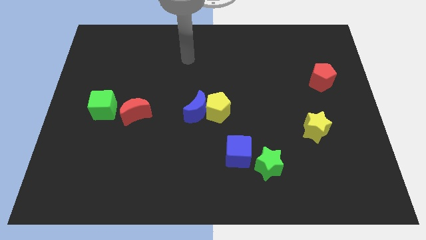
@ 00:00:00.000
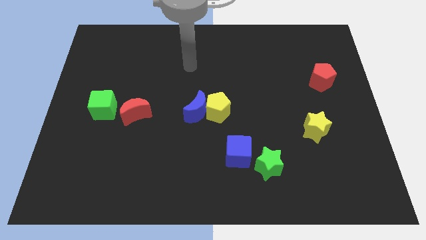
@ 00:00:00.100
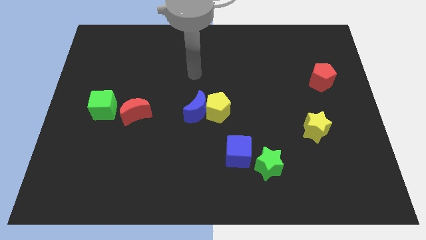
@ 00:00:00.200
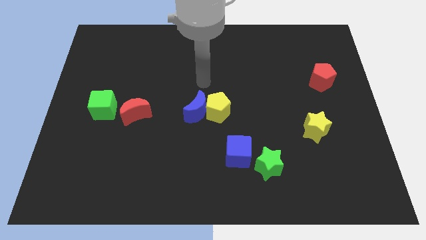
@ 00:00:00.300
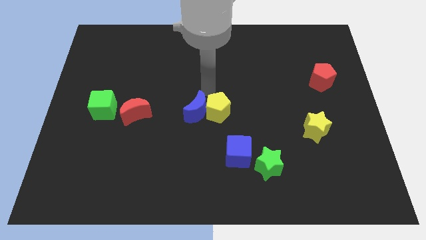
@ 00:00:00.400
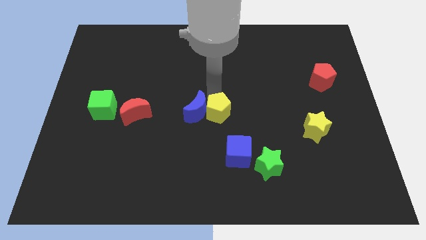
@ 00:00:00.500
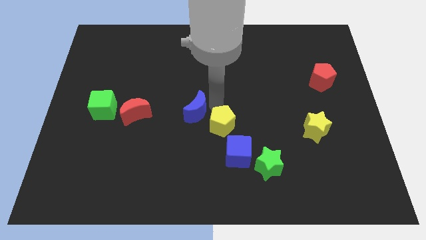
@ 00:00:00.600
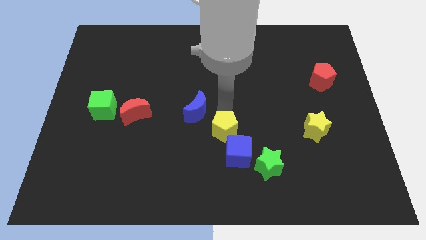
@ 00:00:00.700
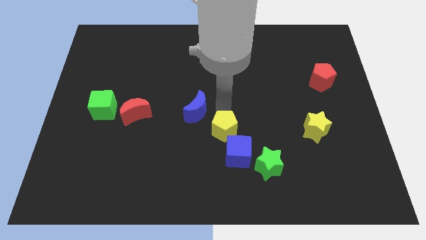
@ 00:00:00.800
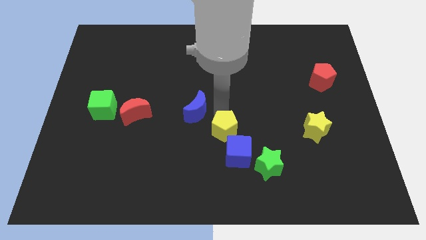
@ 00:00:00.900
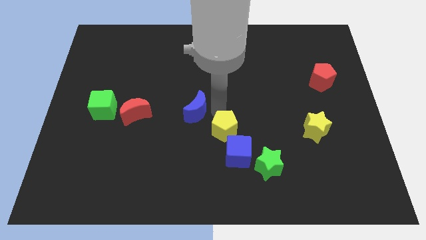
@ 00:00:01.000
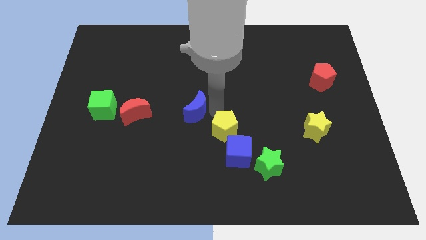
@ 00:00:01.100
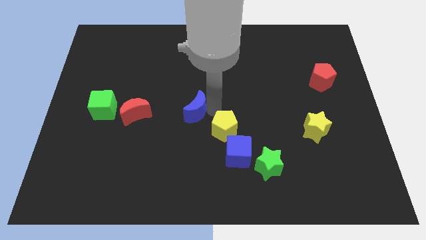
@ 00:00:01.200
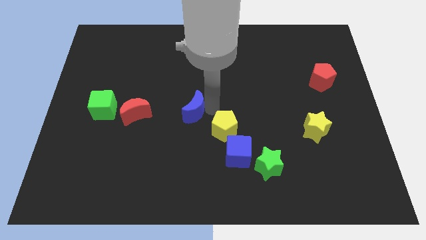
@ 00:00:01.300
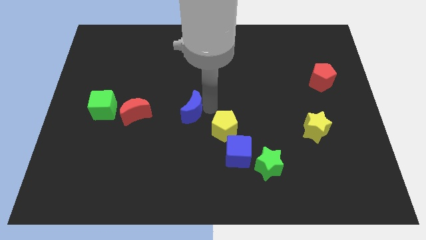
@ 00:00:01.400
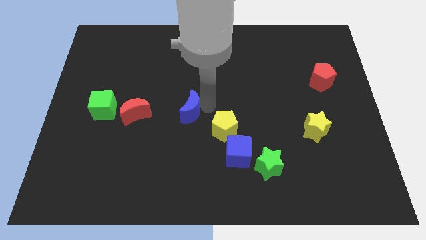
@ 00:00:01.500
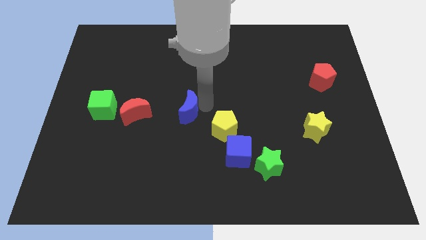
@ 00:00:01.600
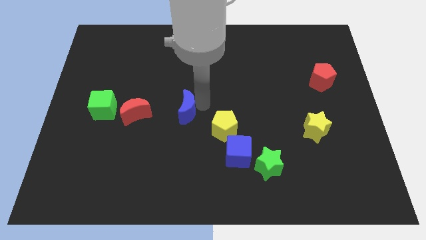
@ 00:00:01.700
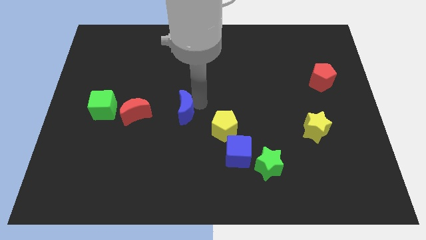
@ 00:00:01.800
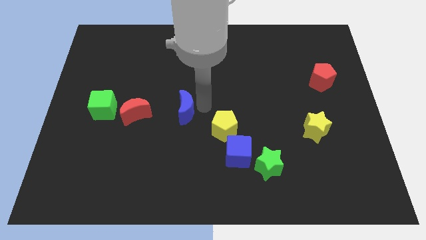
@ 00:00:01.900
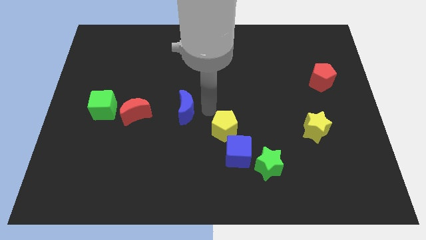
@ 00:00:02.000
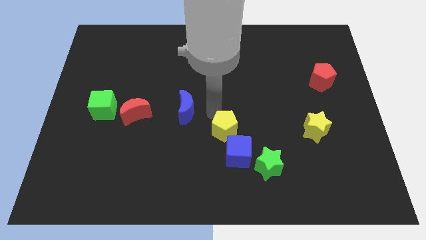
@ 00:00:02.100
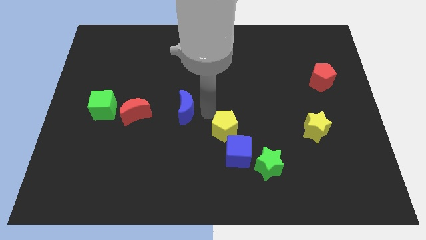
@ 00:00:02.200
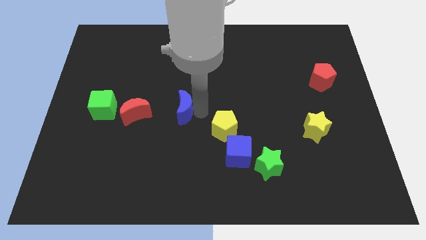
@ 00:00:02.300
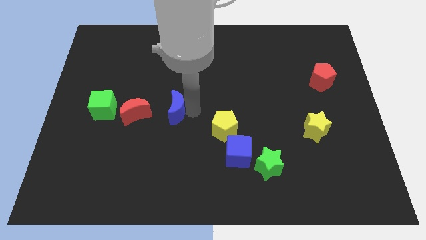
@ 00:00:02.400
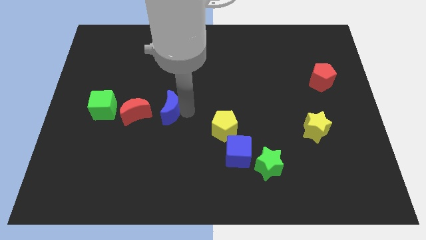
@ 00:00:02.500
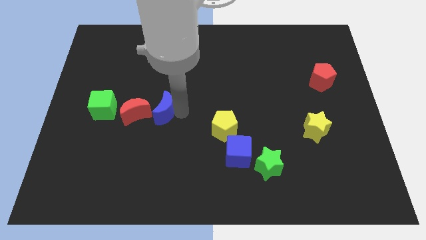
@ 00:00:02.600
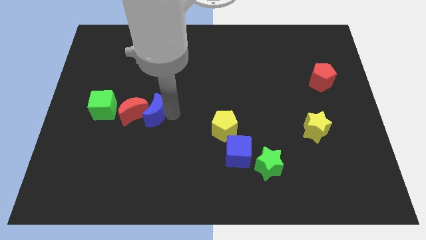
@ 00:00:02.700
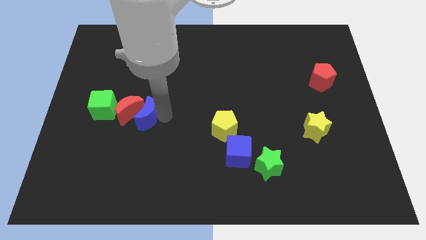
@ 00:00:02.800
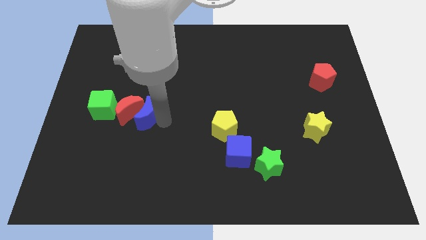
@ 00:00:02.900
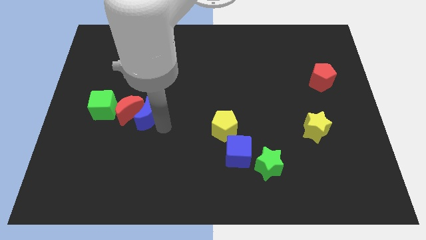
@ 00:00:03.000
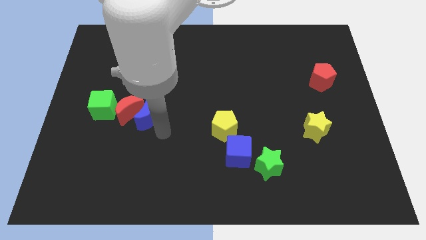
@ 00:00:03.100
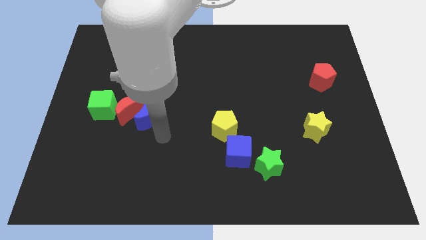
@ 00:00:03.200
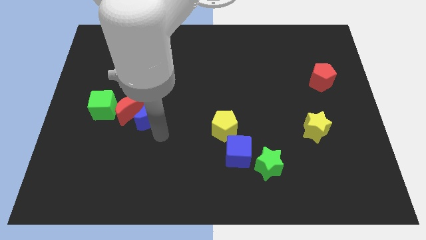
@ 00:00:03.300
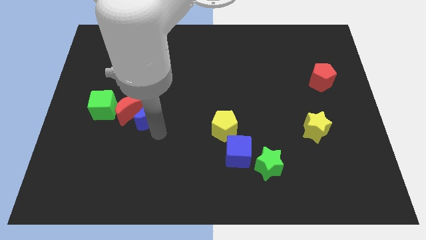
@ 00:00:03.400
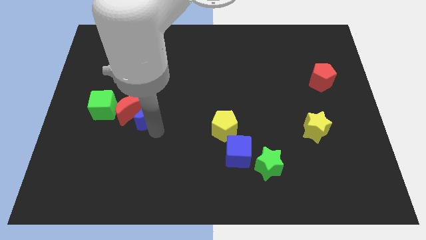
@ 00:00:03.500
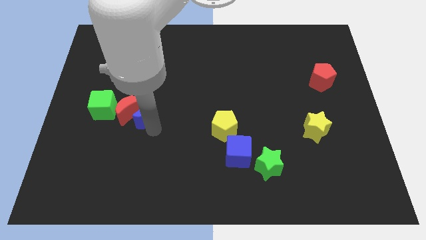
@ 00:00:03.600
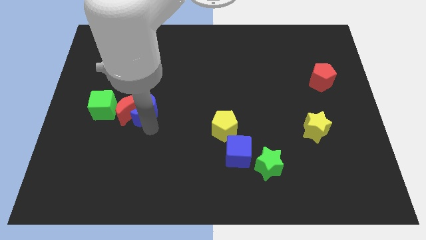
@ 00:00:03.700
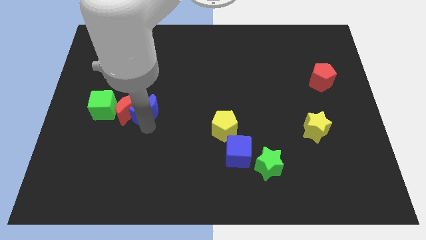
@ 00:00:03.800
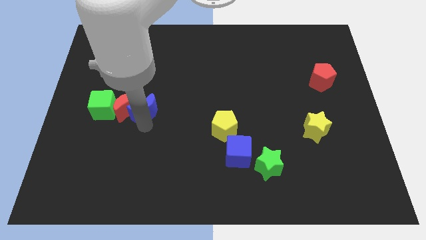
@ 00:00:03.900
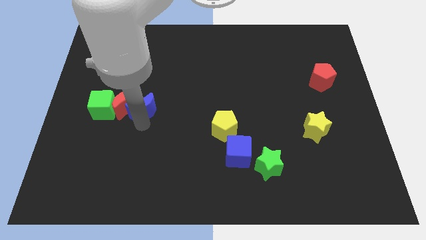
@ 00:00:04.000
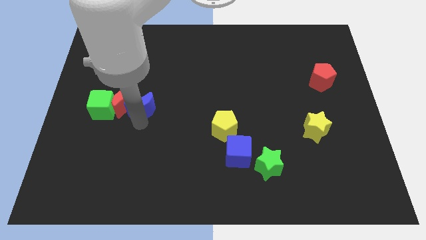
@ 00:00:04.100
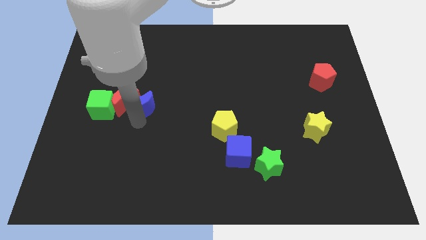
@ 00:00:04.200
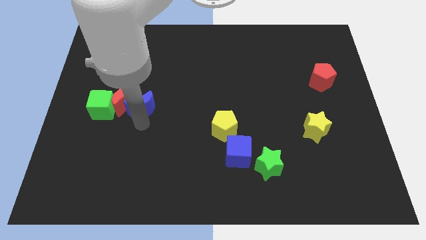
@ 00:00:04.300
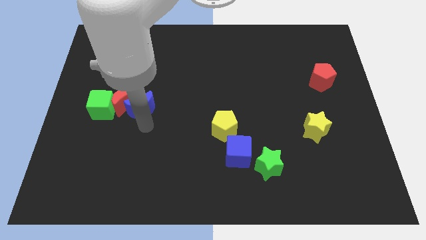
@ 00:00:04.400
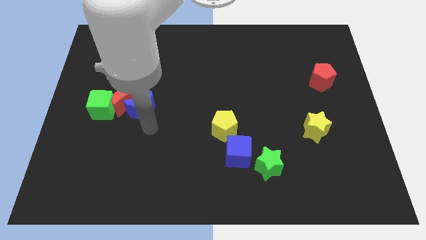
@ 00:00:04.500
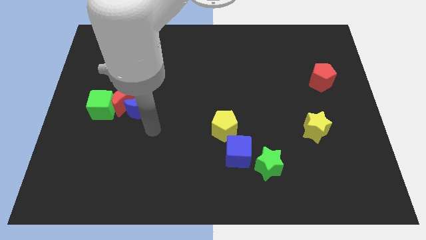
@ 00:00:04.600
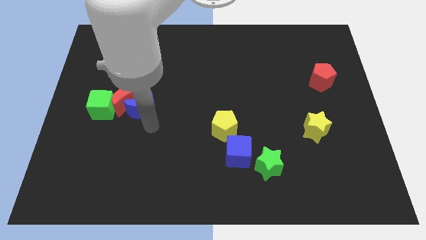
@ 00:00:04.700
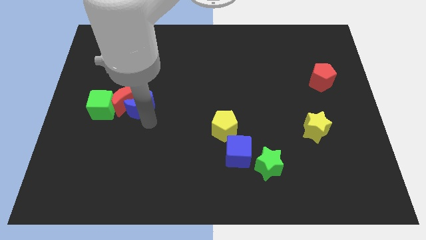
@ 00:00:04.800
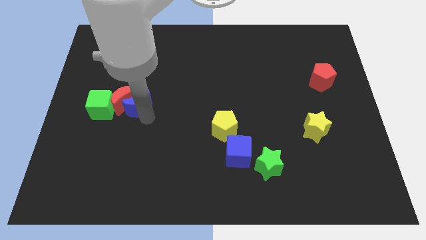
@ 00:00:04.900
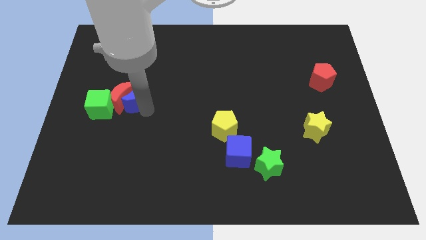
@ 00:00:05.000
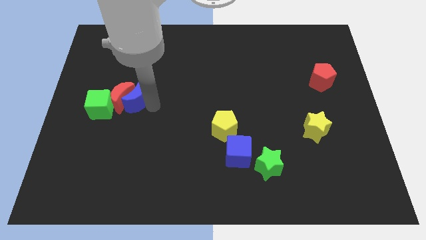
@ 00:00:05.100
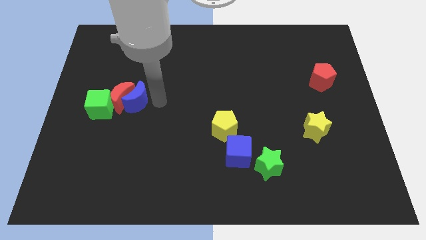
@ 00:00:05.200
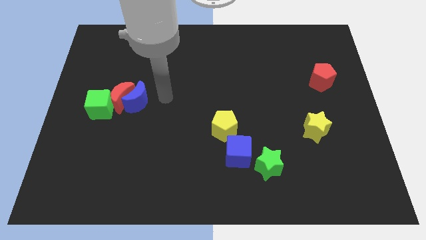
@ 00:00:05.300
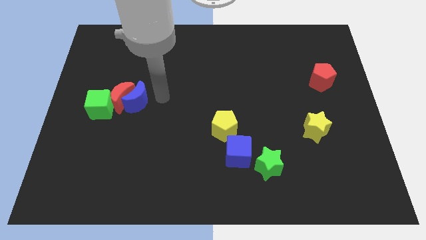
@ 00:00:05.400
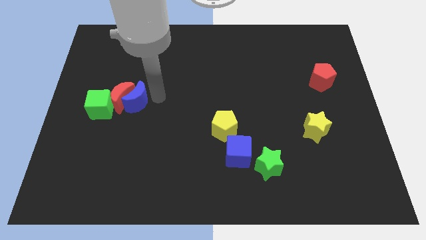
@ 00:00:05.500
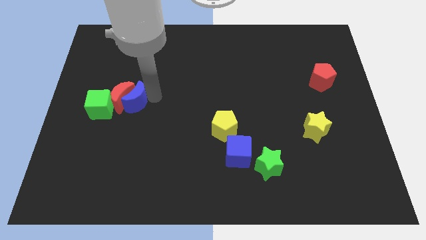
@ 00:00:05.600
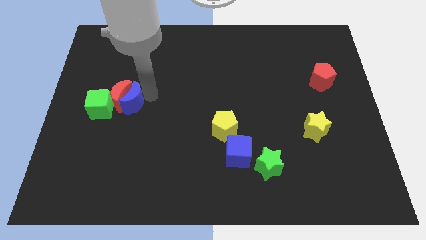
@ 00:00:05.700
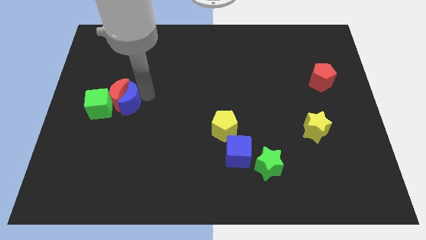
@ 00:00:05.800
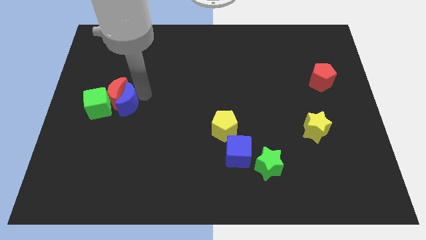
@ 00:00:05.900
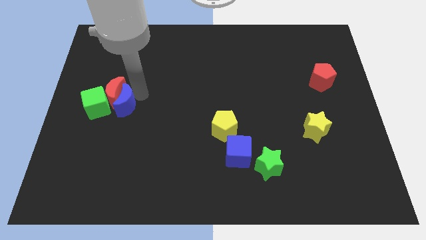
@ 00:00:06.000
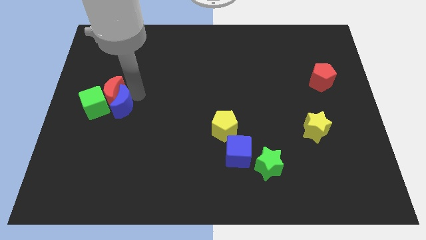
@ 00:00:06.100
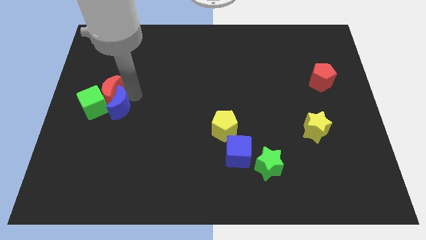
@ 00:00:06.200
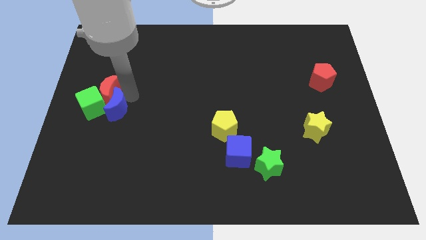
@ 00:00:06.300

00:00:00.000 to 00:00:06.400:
put the blue moon towards the green cube
